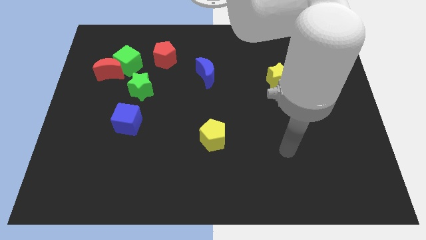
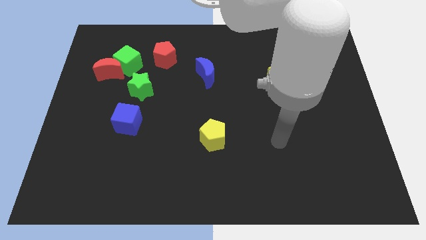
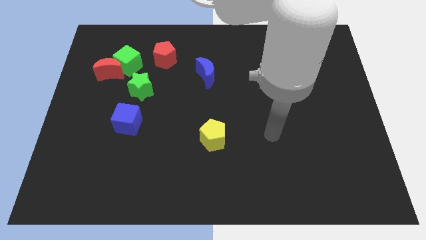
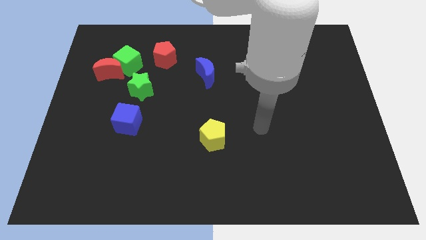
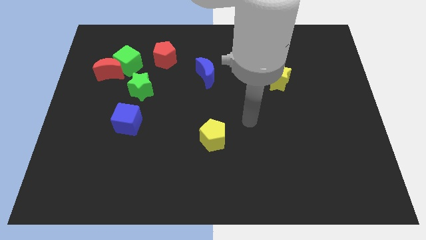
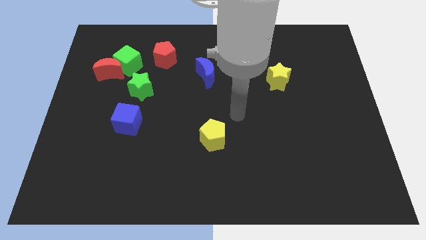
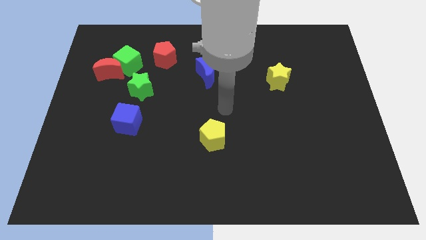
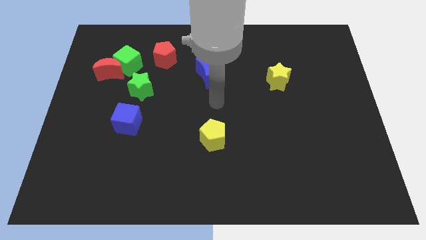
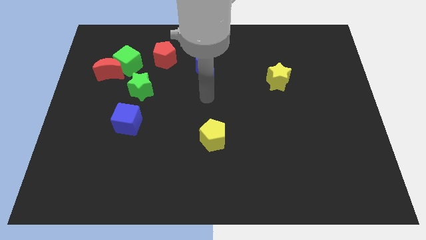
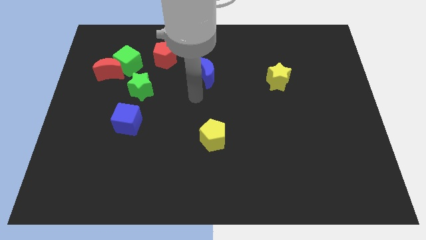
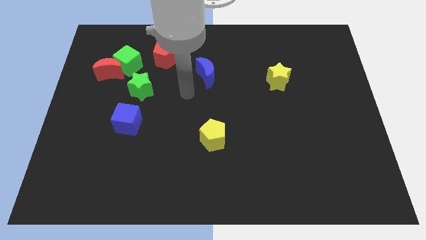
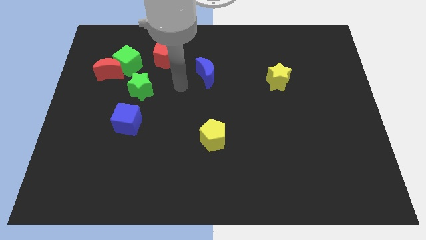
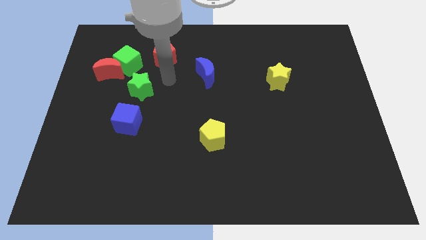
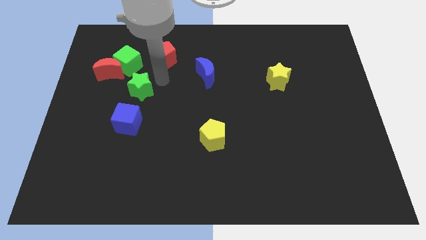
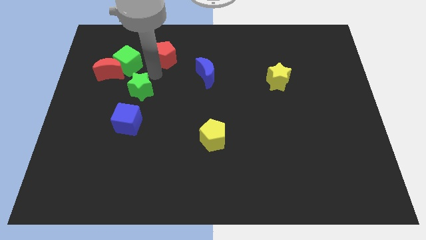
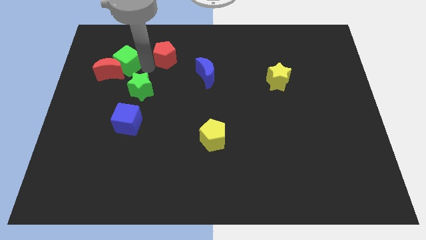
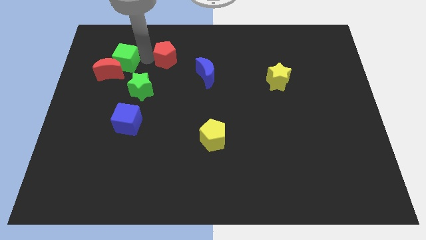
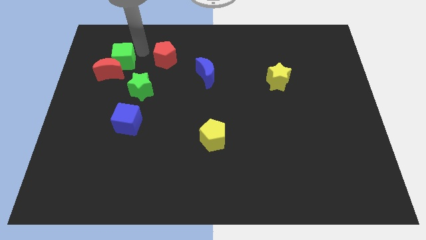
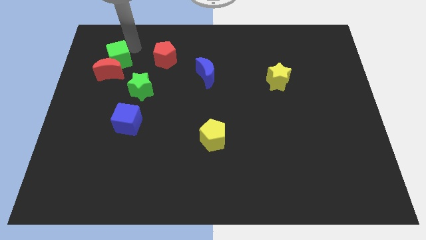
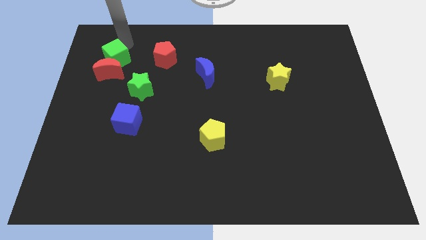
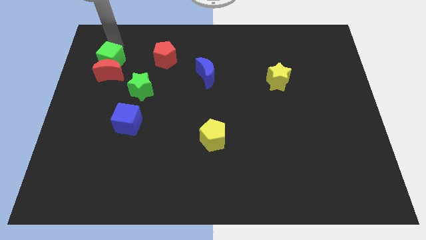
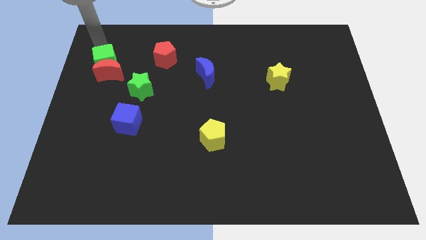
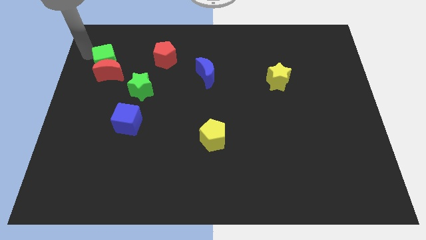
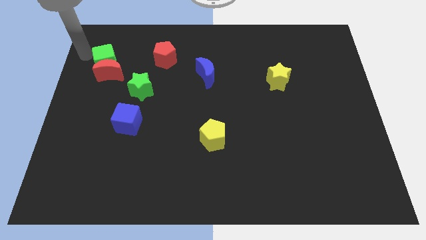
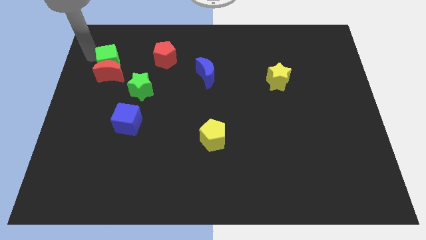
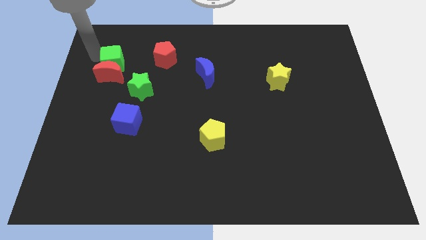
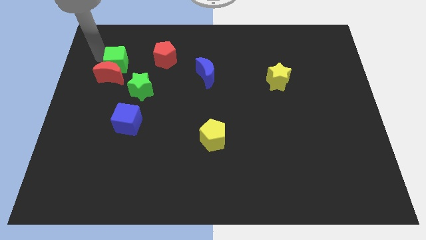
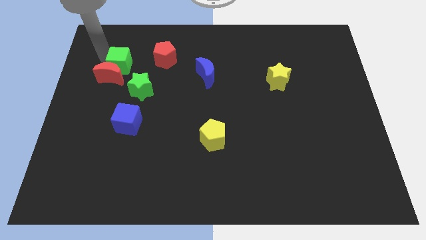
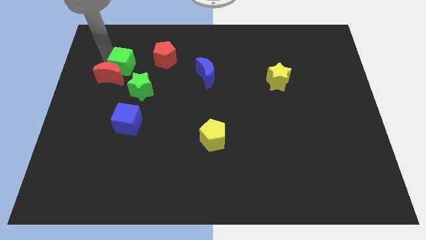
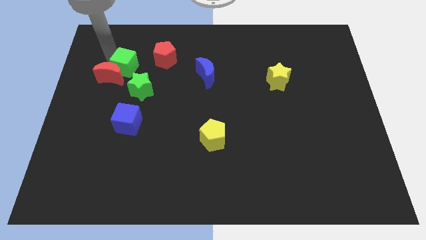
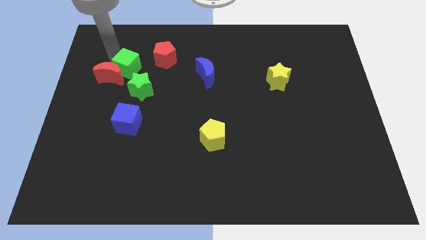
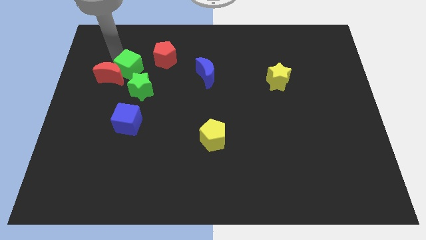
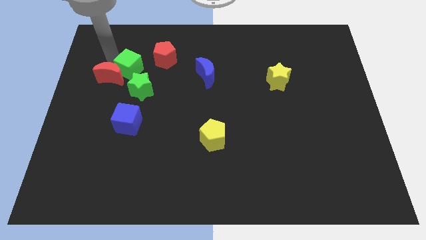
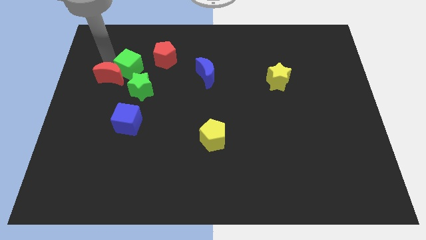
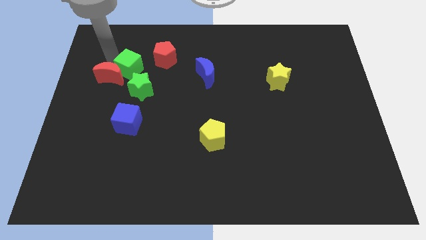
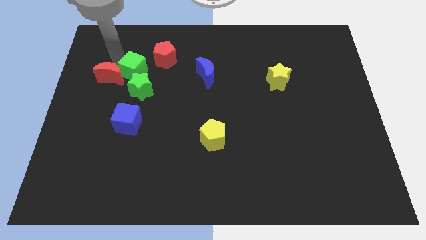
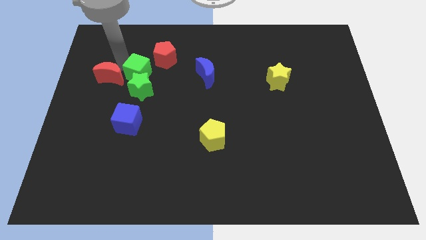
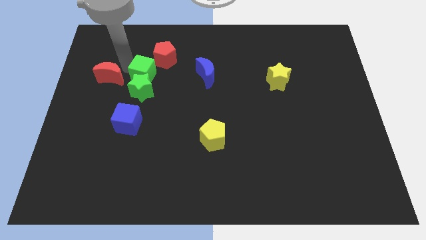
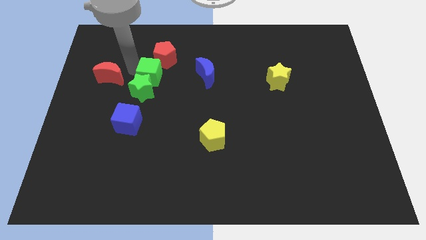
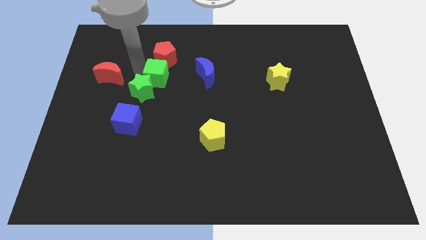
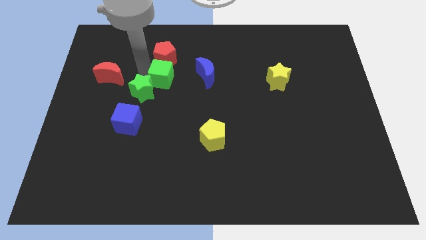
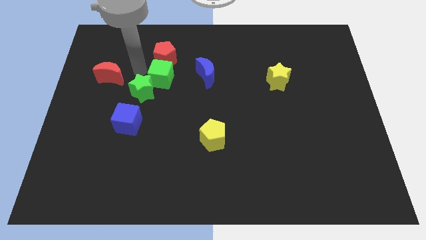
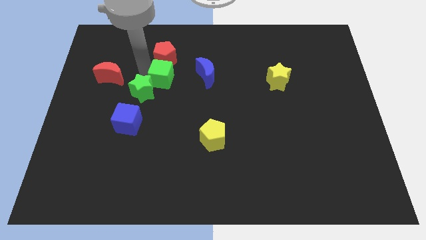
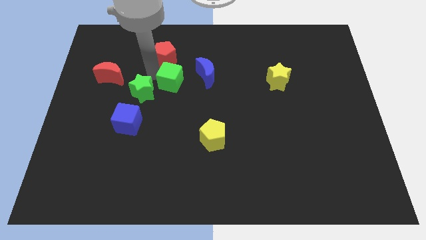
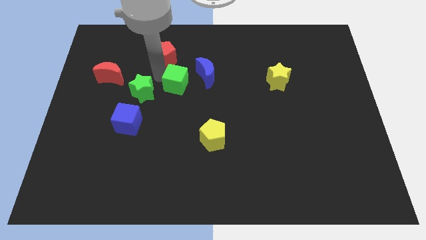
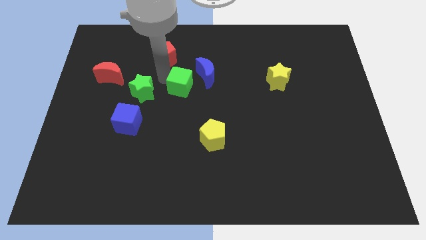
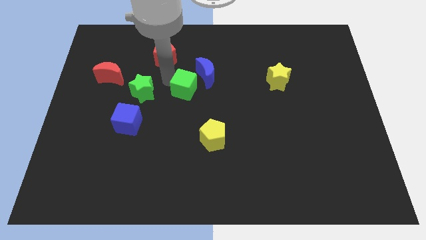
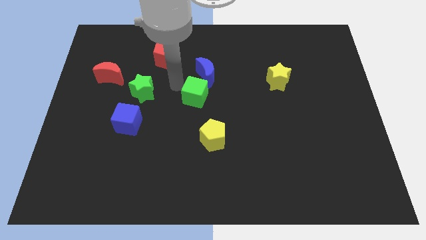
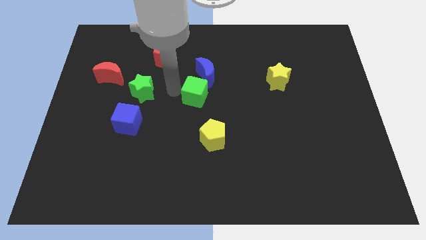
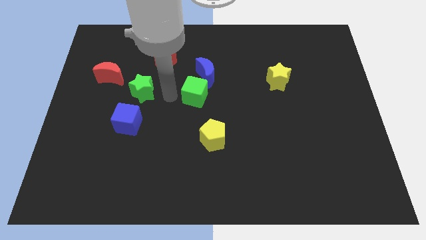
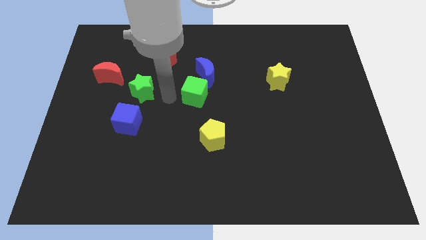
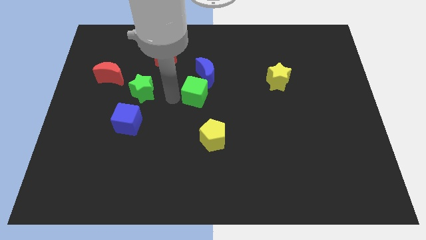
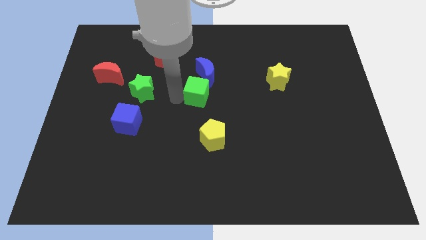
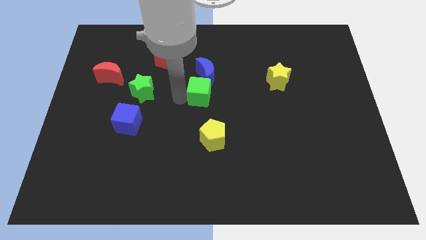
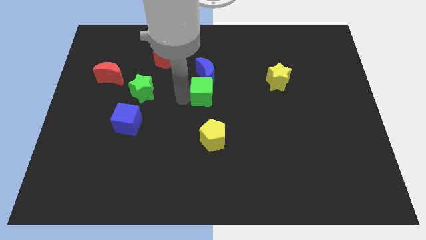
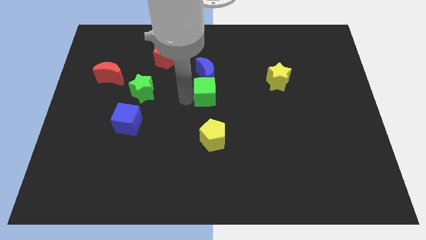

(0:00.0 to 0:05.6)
slide the green cube to the bottom right side of the blue moon

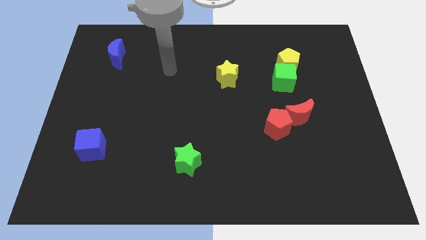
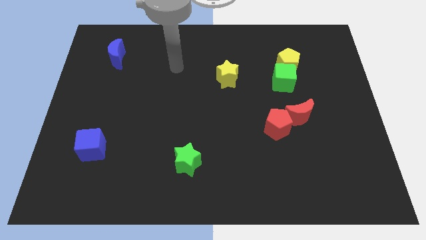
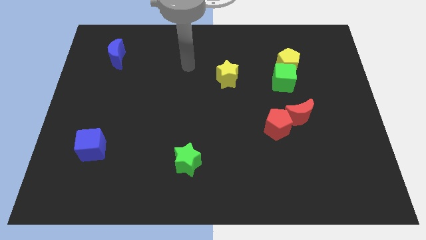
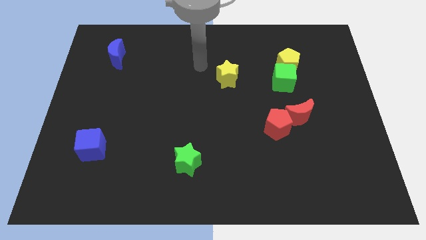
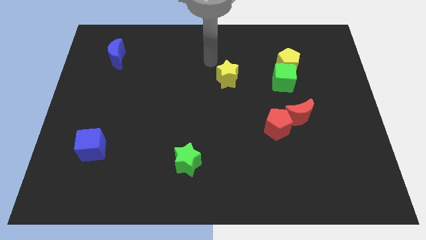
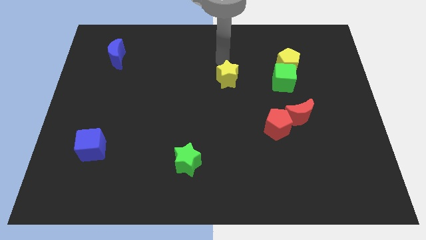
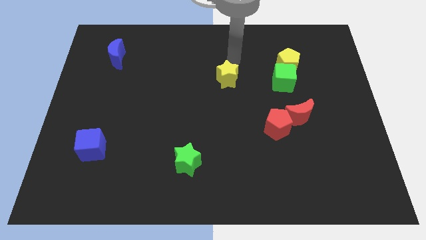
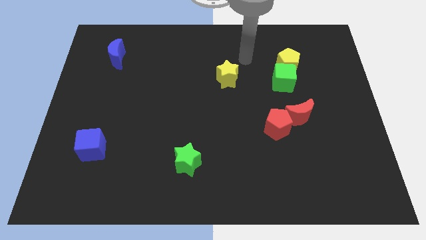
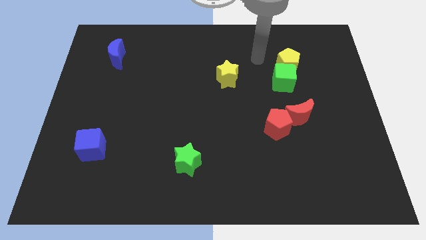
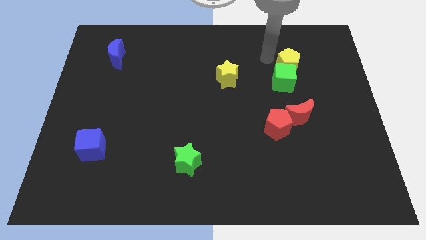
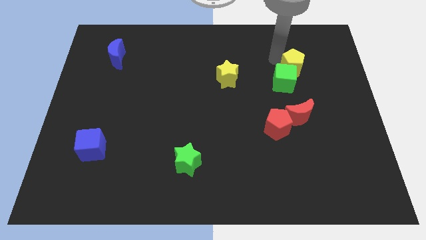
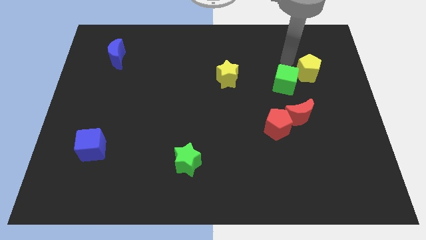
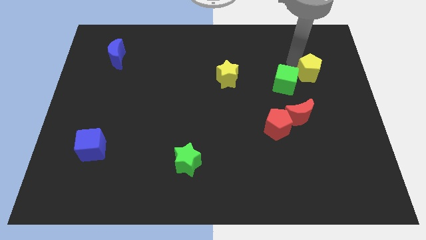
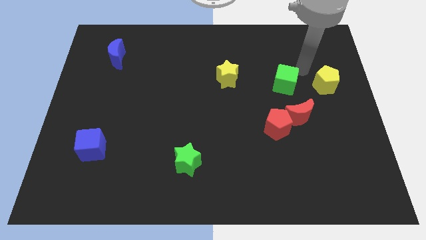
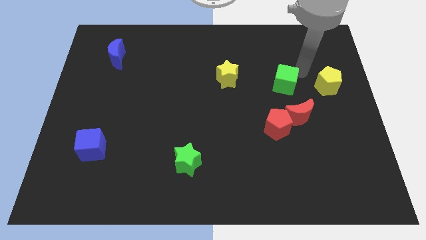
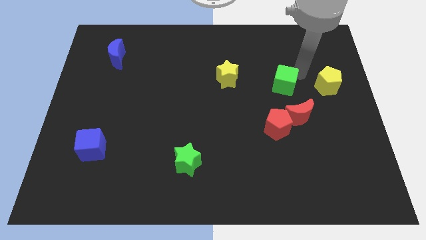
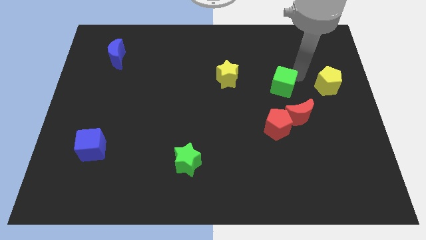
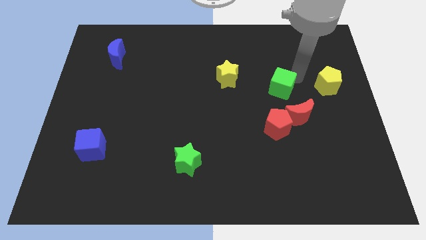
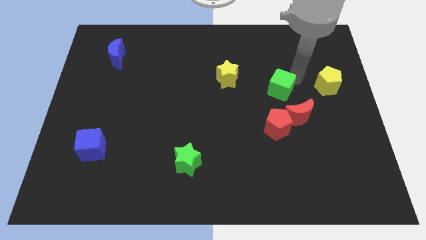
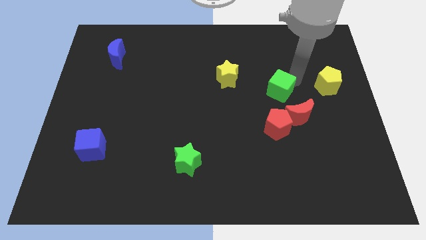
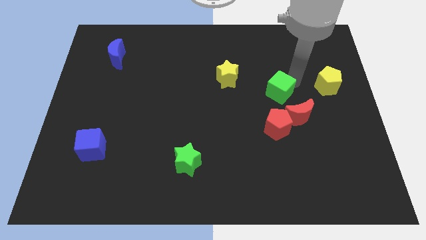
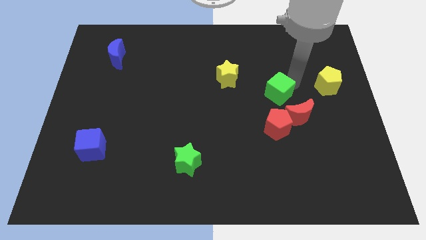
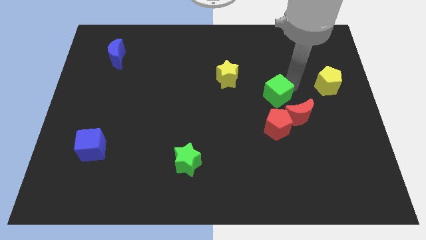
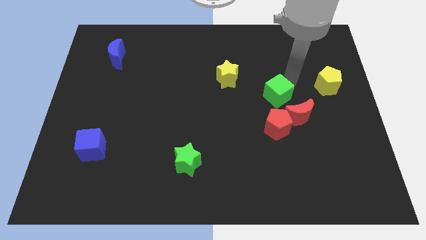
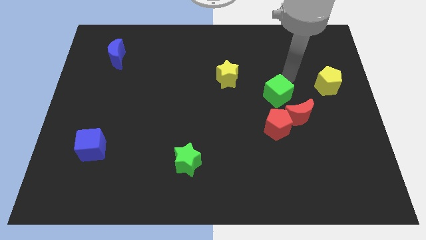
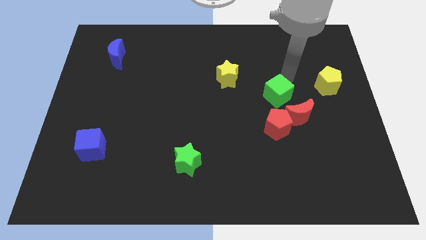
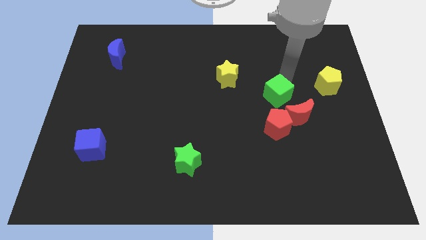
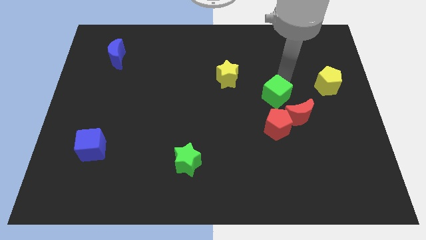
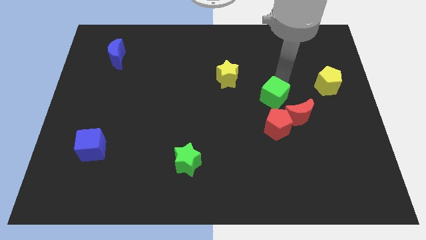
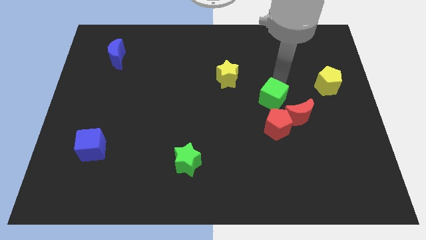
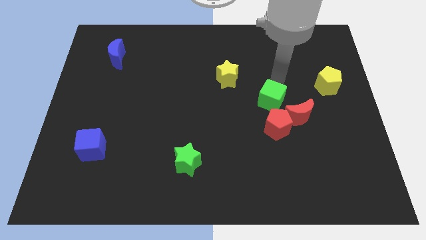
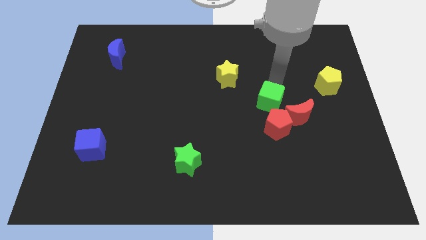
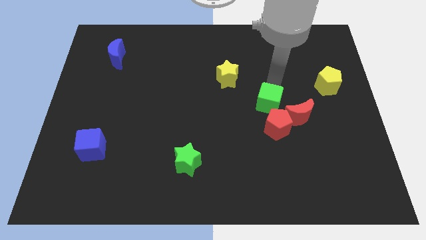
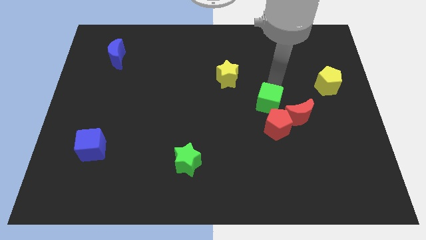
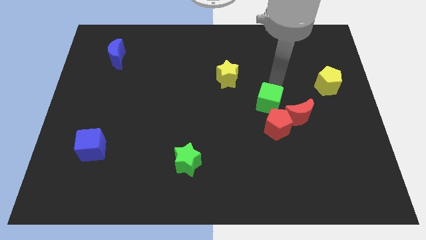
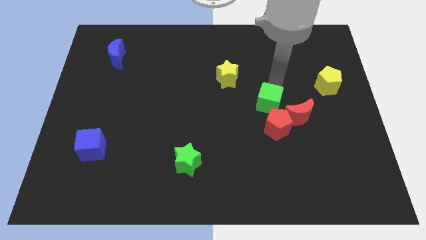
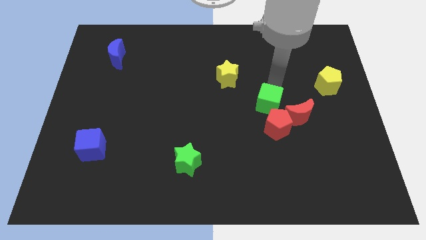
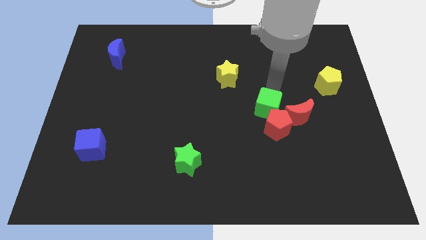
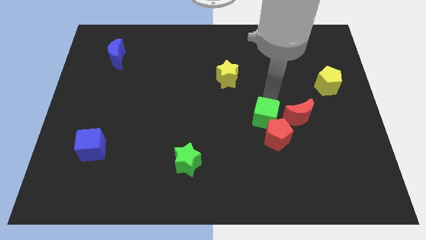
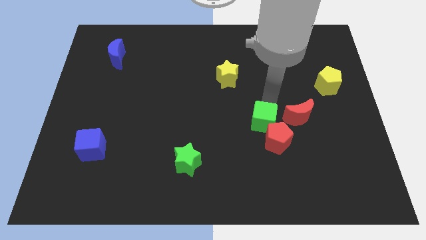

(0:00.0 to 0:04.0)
push the green cube diagonally down and to the left of the red moon
